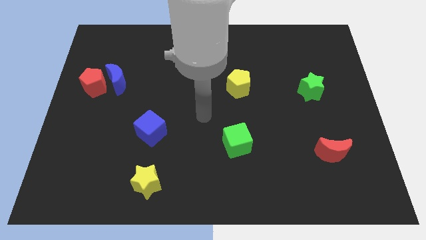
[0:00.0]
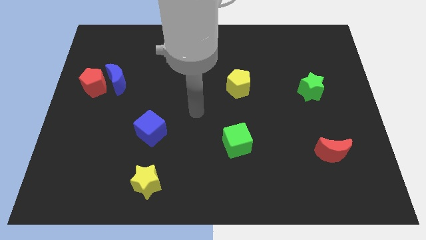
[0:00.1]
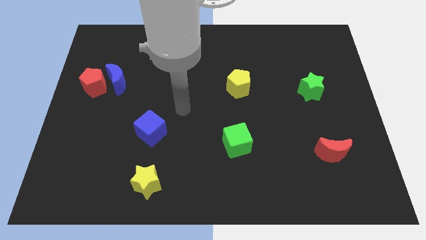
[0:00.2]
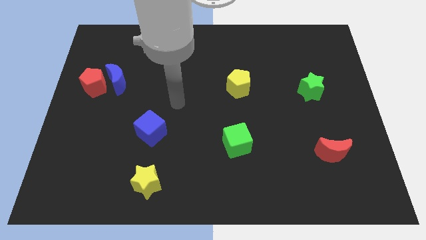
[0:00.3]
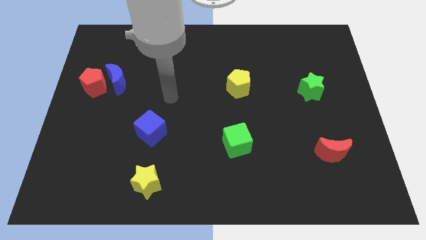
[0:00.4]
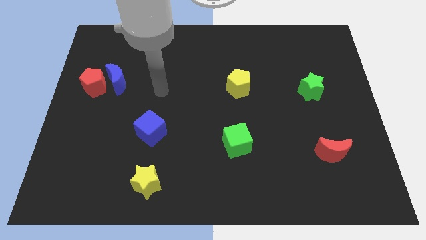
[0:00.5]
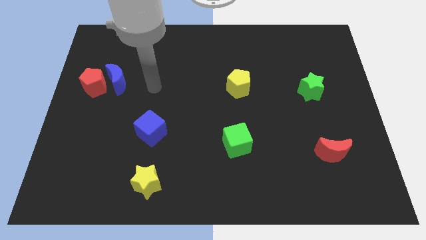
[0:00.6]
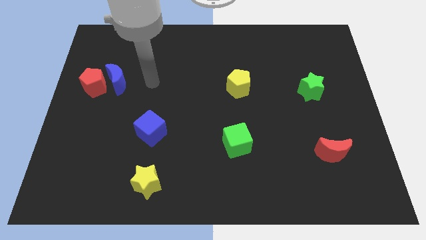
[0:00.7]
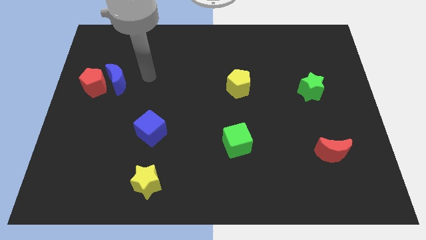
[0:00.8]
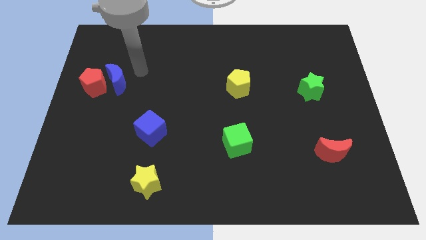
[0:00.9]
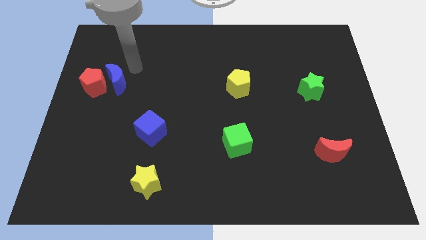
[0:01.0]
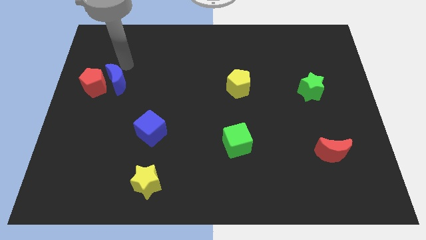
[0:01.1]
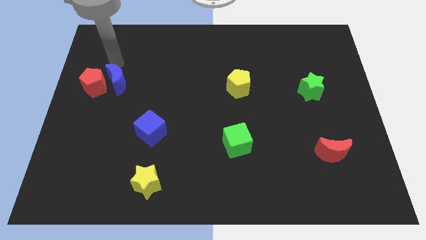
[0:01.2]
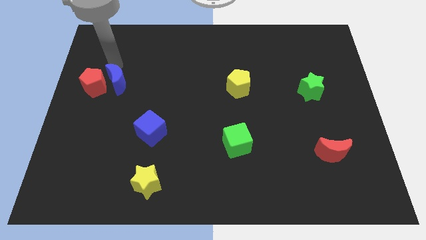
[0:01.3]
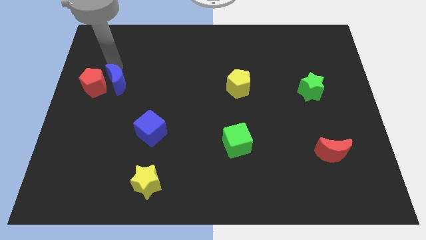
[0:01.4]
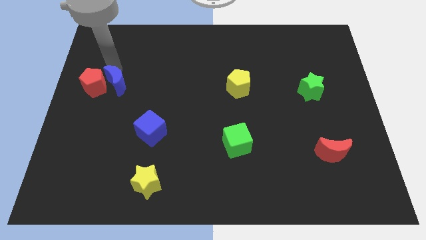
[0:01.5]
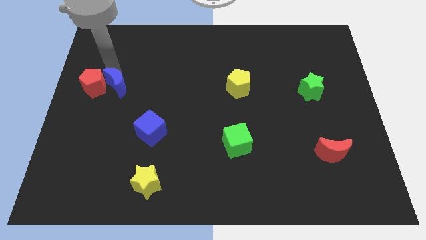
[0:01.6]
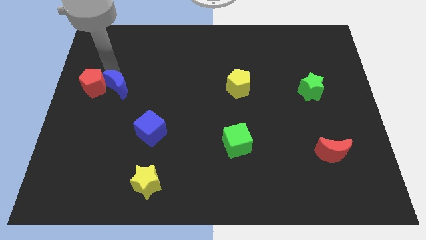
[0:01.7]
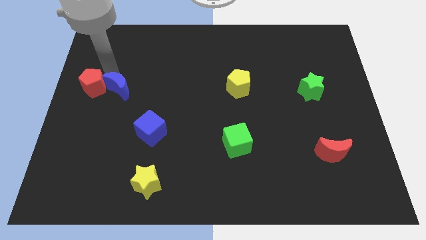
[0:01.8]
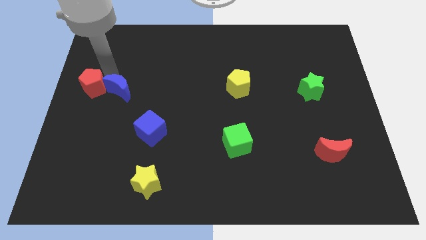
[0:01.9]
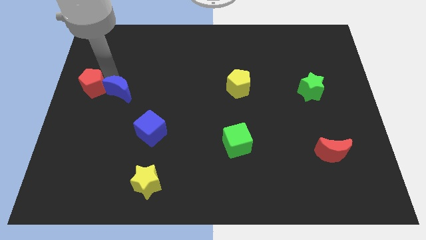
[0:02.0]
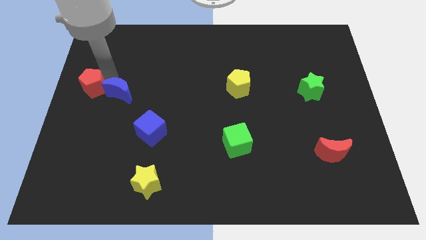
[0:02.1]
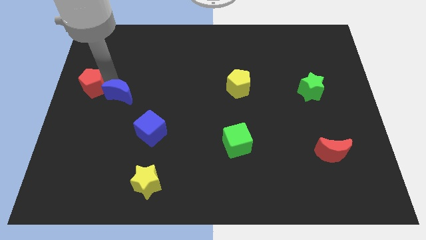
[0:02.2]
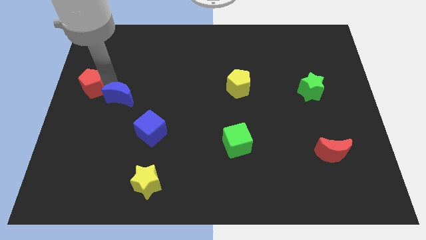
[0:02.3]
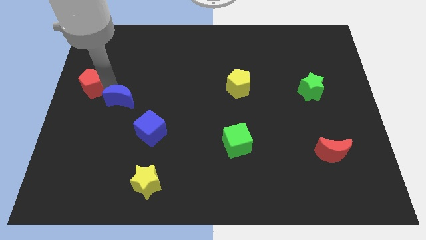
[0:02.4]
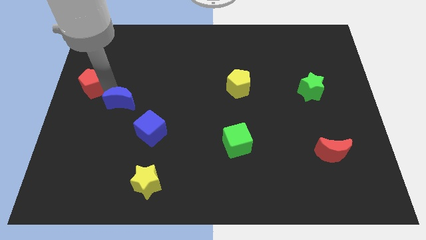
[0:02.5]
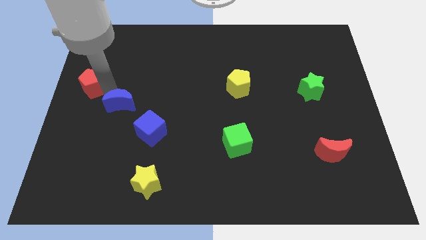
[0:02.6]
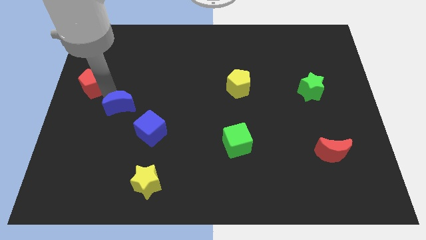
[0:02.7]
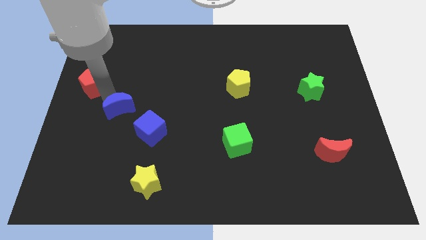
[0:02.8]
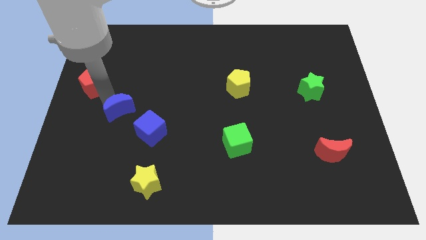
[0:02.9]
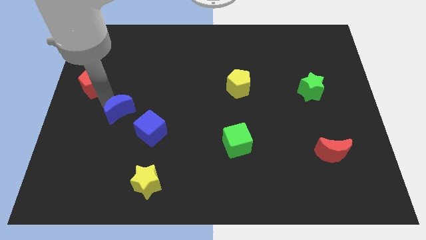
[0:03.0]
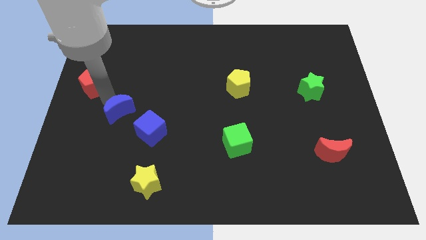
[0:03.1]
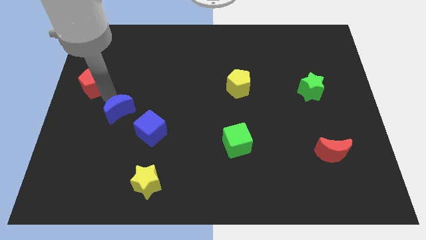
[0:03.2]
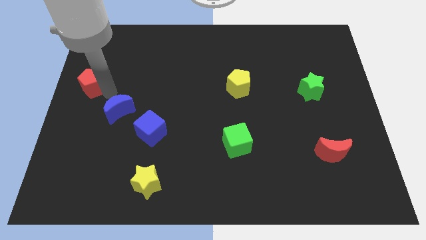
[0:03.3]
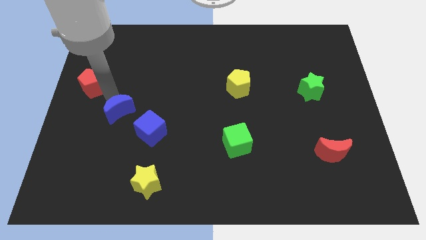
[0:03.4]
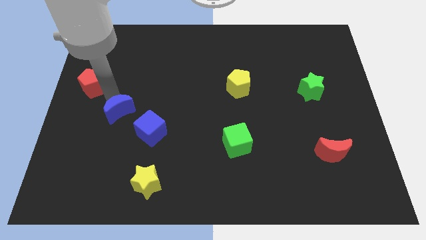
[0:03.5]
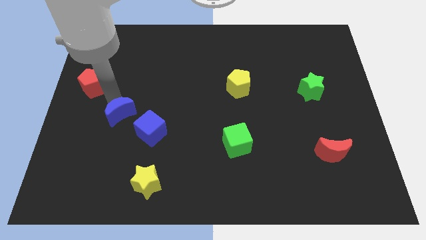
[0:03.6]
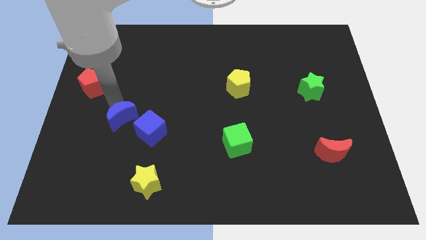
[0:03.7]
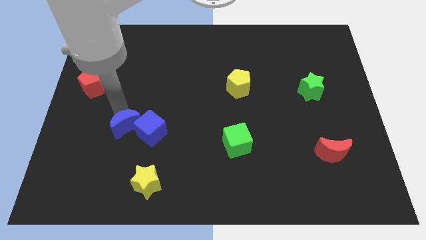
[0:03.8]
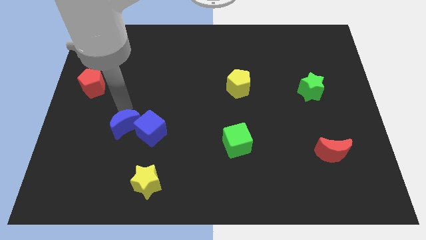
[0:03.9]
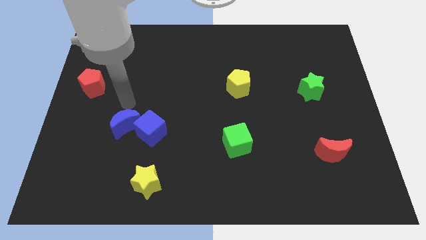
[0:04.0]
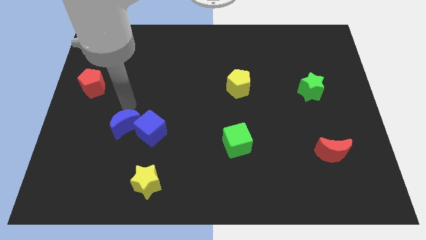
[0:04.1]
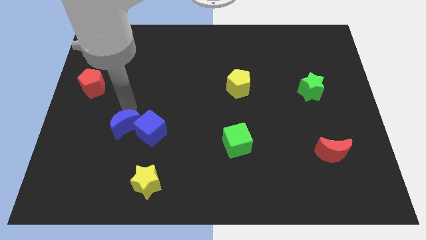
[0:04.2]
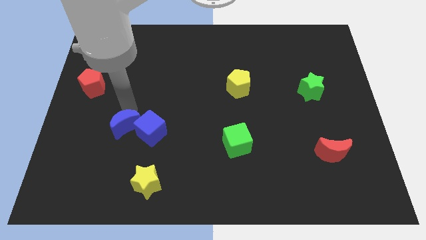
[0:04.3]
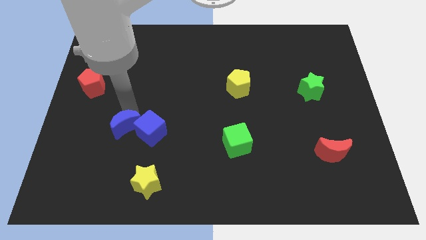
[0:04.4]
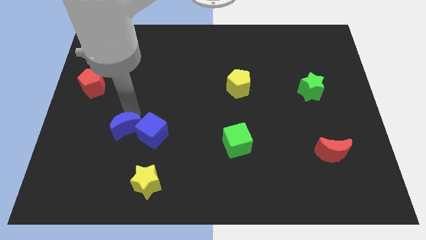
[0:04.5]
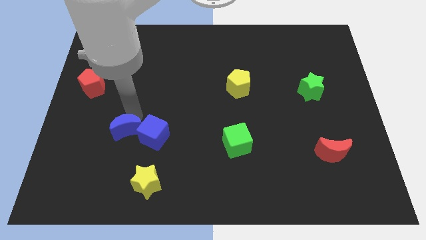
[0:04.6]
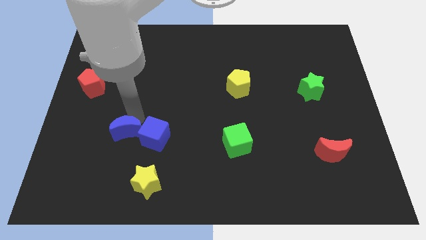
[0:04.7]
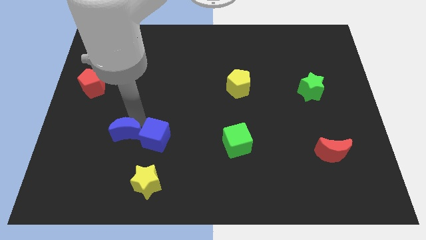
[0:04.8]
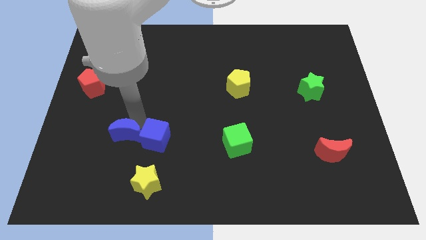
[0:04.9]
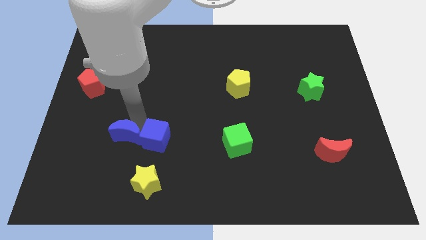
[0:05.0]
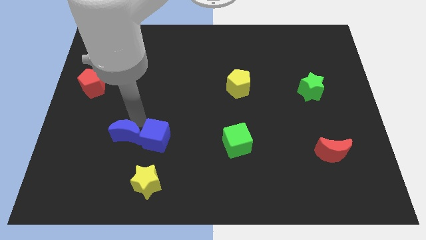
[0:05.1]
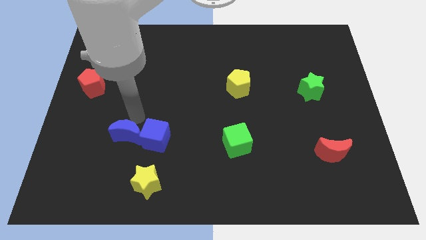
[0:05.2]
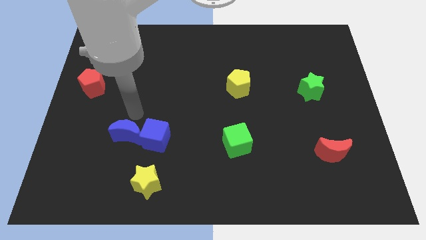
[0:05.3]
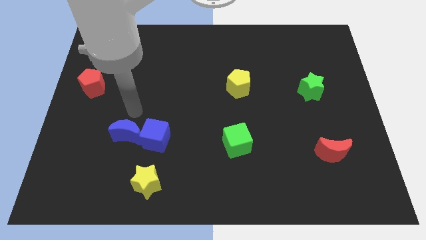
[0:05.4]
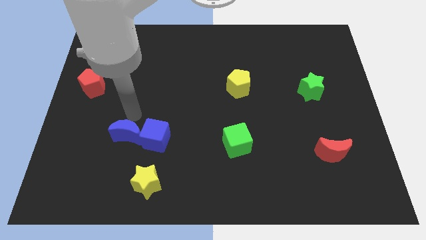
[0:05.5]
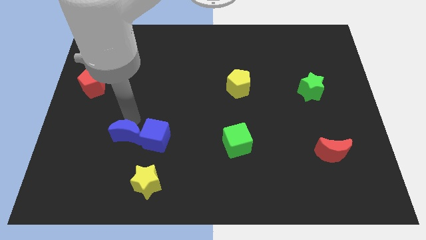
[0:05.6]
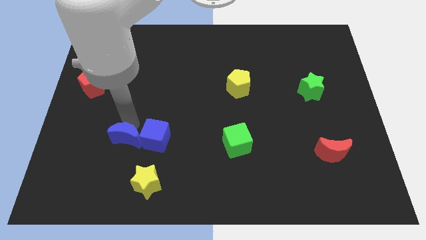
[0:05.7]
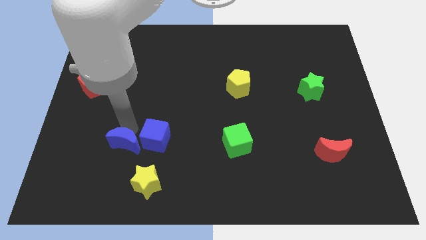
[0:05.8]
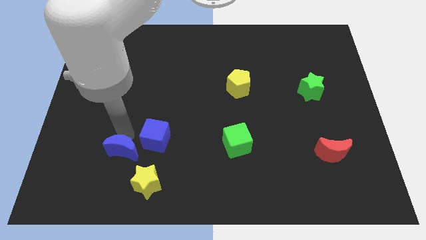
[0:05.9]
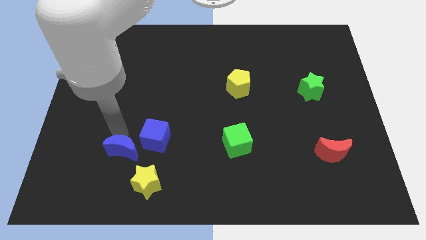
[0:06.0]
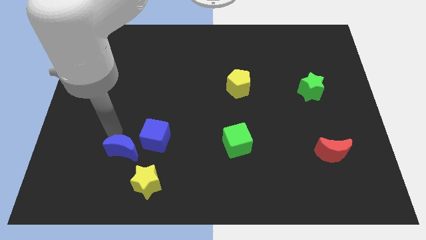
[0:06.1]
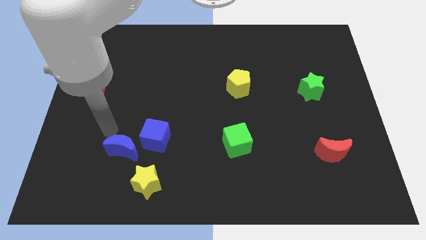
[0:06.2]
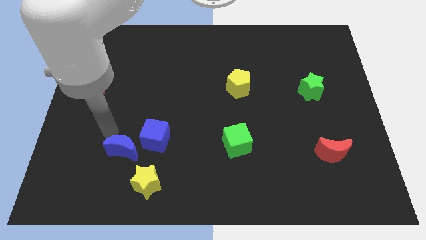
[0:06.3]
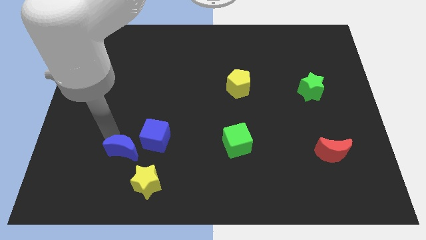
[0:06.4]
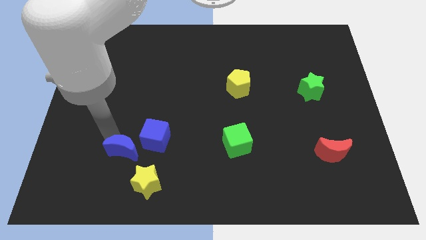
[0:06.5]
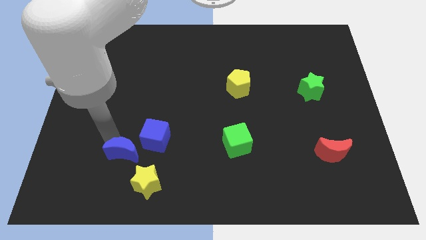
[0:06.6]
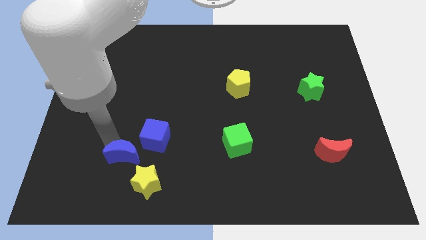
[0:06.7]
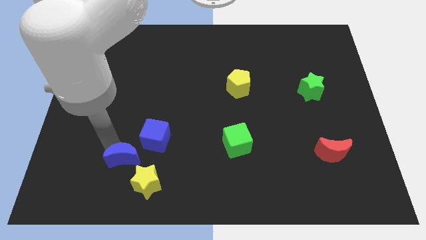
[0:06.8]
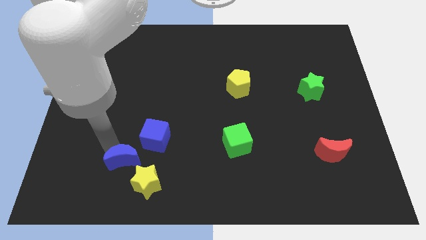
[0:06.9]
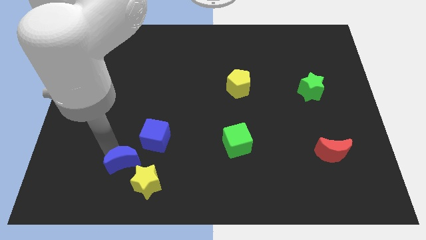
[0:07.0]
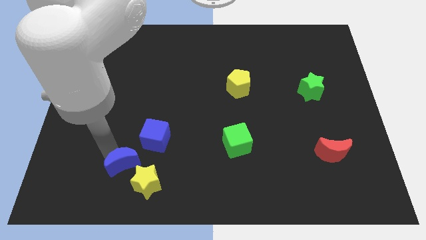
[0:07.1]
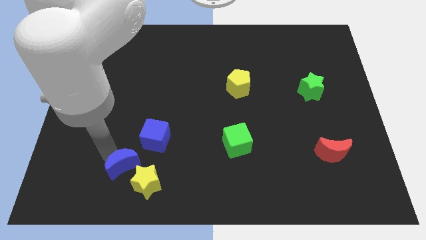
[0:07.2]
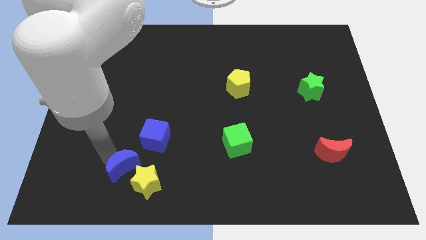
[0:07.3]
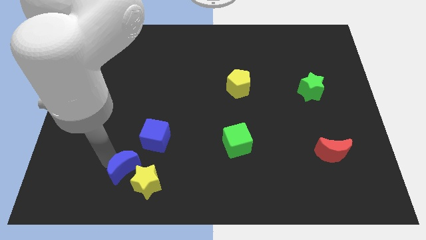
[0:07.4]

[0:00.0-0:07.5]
move the blue moon next to the yellow star

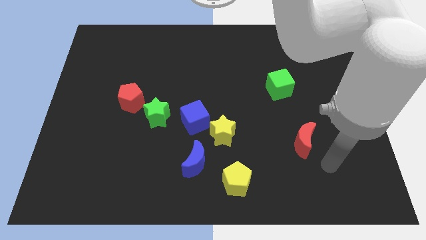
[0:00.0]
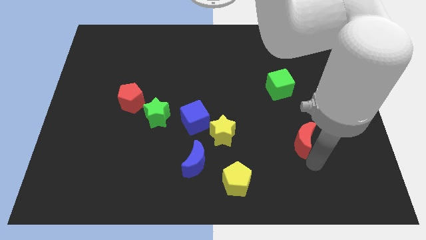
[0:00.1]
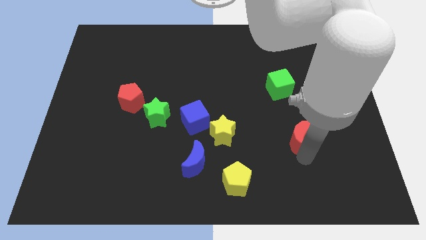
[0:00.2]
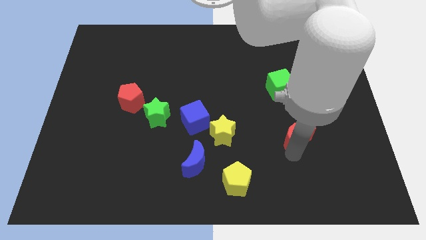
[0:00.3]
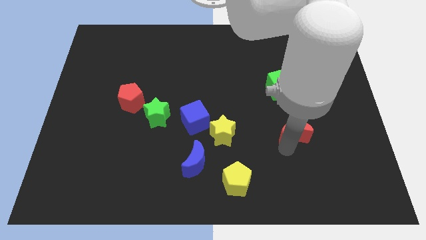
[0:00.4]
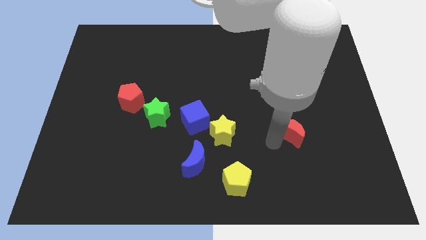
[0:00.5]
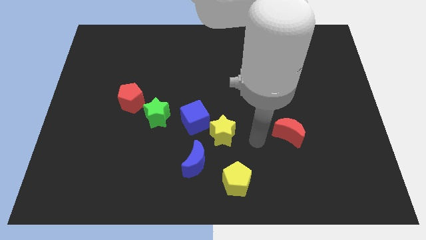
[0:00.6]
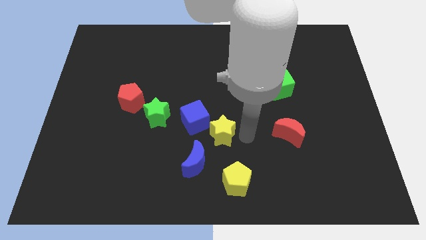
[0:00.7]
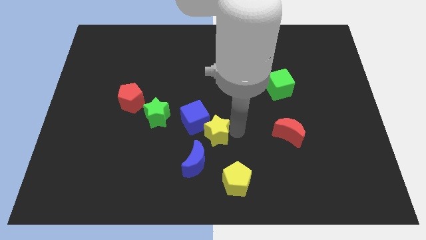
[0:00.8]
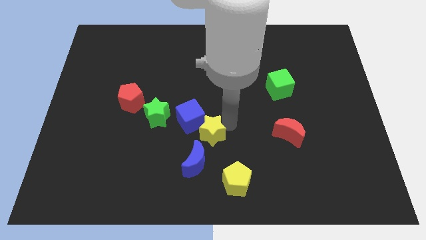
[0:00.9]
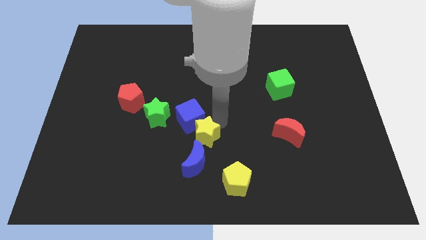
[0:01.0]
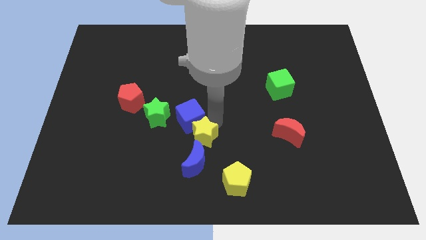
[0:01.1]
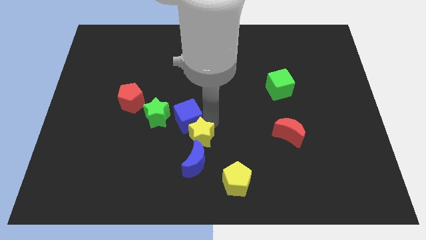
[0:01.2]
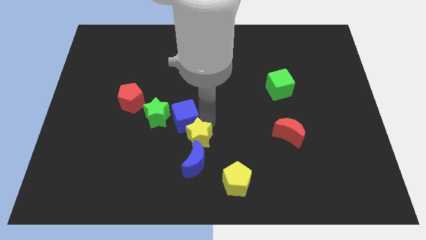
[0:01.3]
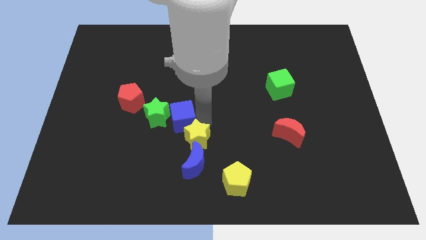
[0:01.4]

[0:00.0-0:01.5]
move the blue cube next to the green star
